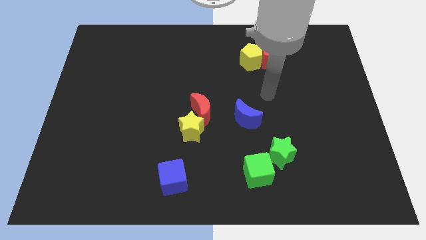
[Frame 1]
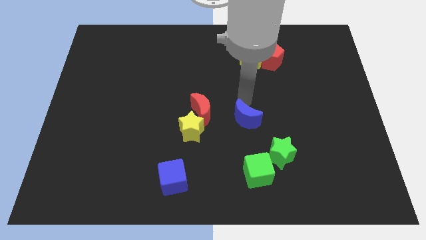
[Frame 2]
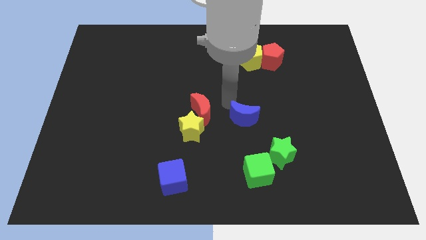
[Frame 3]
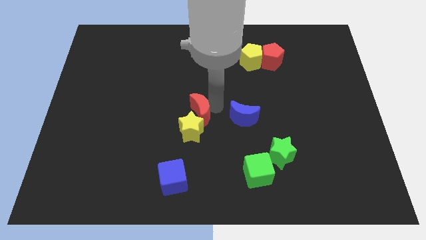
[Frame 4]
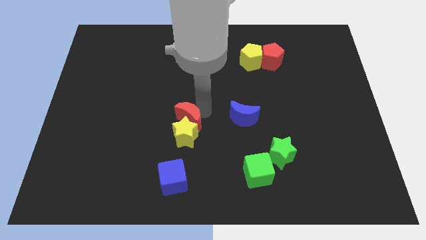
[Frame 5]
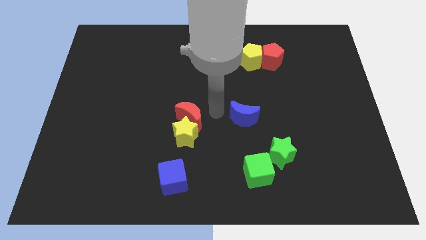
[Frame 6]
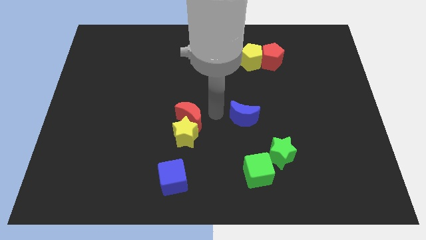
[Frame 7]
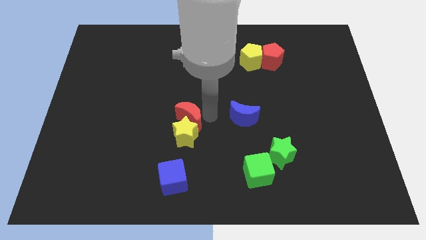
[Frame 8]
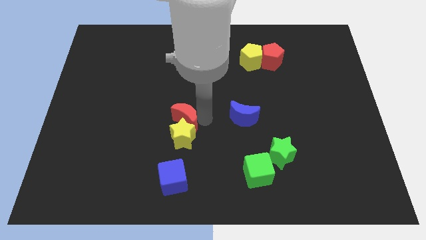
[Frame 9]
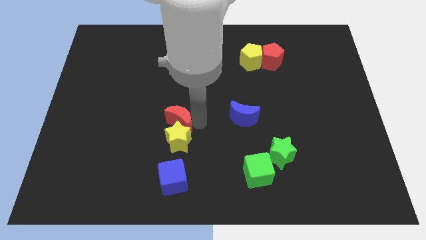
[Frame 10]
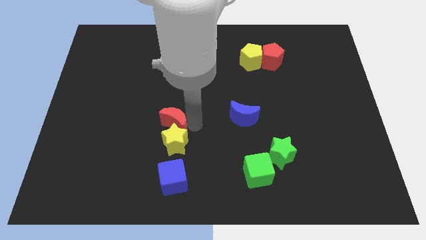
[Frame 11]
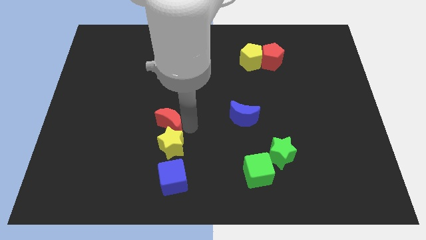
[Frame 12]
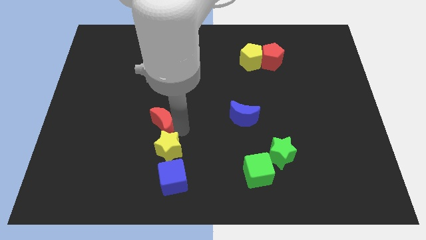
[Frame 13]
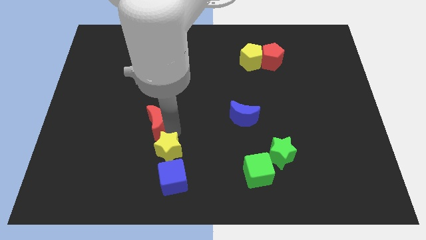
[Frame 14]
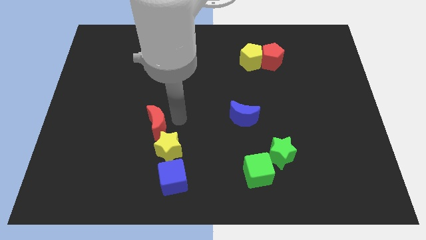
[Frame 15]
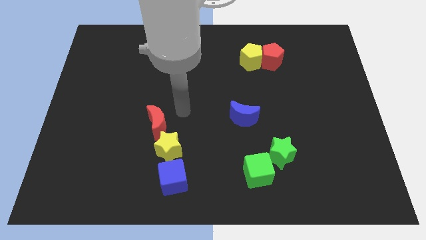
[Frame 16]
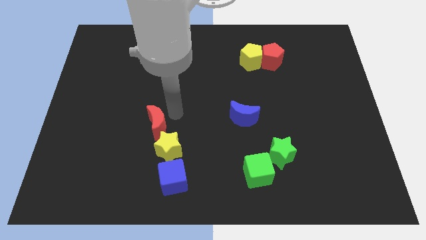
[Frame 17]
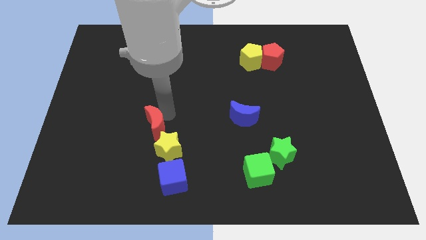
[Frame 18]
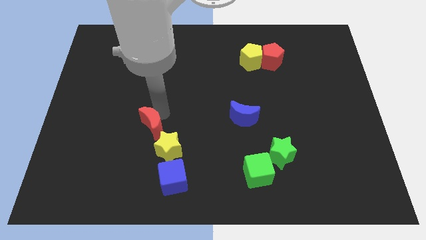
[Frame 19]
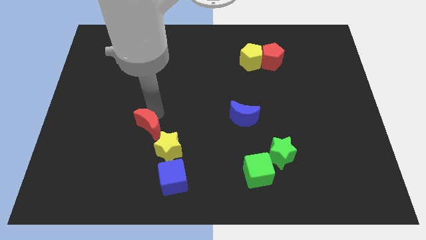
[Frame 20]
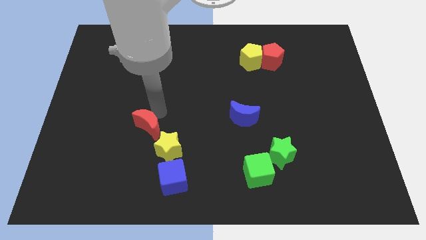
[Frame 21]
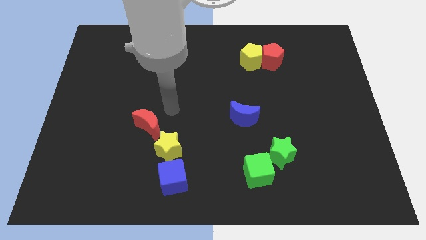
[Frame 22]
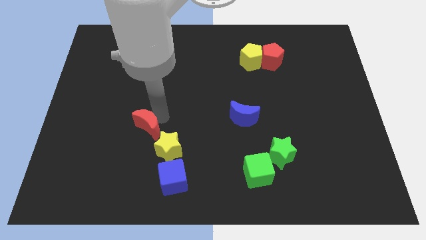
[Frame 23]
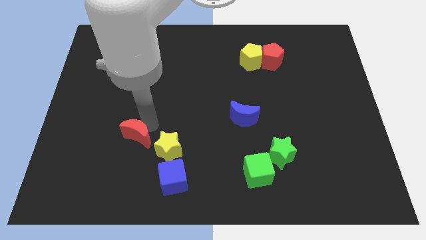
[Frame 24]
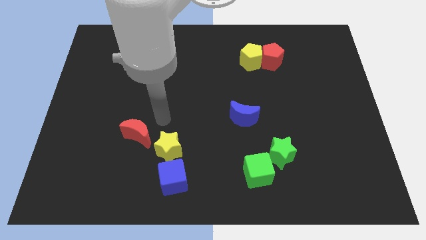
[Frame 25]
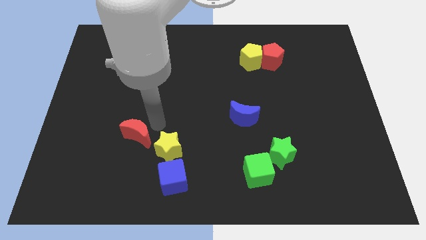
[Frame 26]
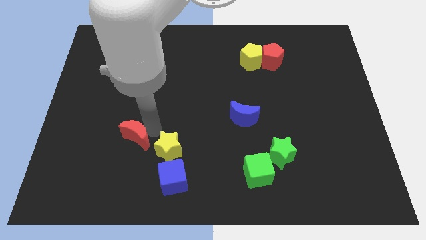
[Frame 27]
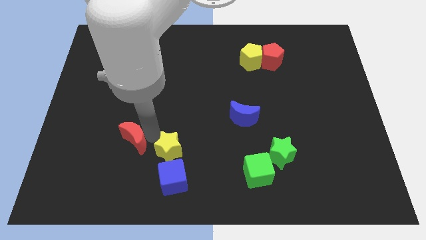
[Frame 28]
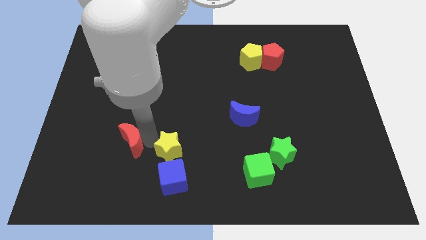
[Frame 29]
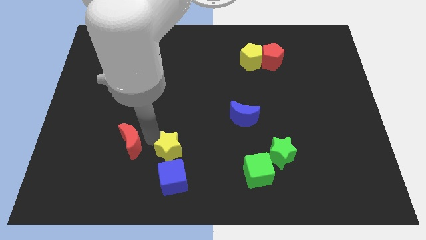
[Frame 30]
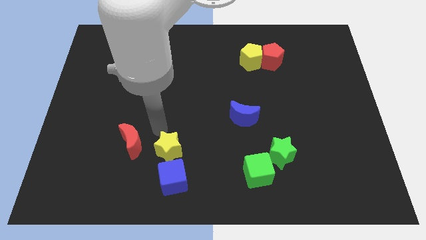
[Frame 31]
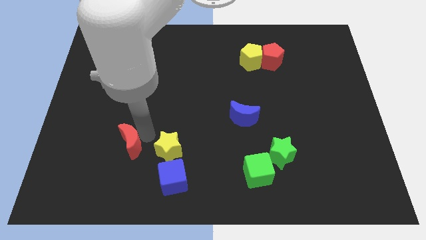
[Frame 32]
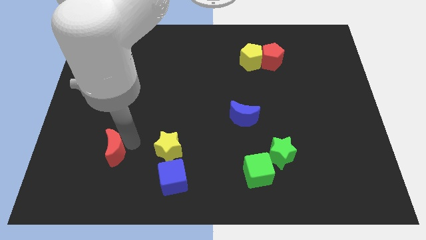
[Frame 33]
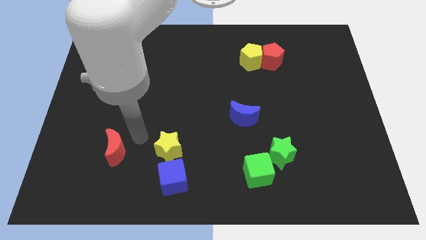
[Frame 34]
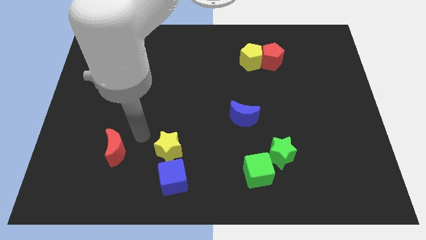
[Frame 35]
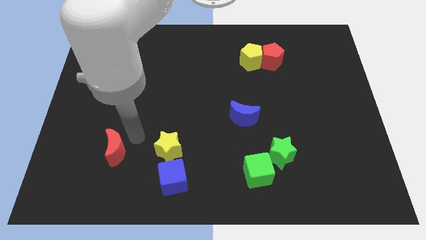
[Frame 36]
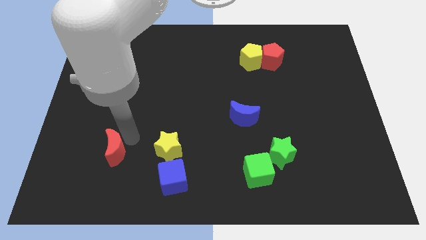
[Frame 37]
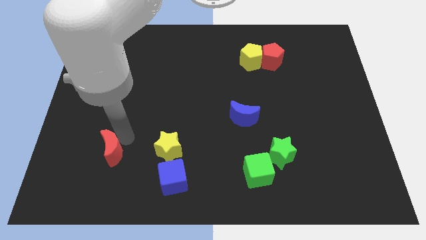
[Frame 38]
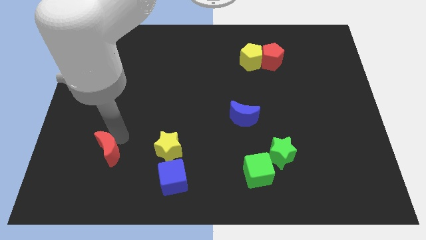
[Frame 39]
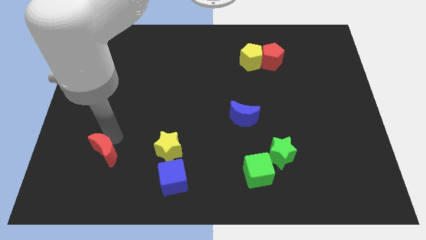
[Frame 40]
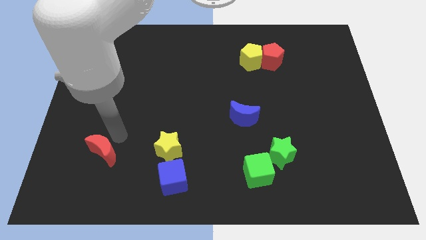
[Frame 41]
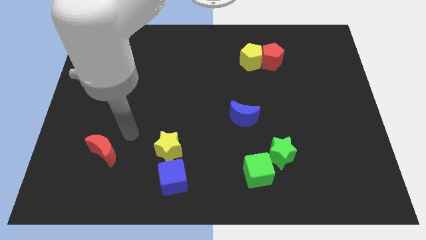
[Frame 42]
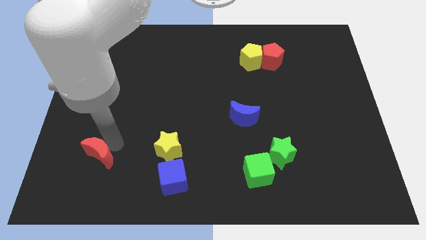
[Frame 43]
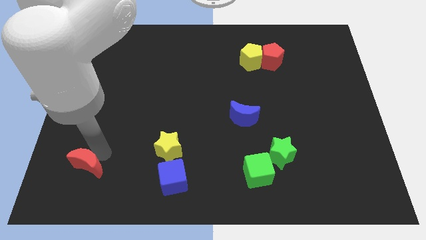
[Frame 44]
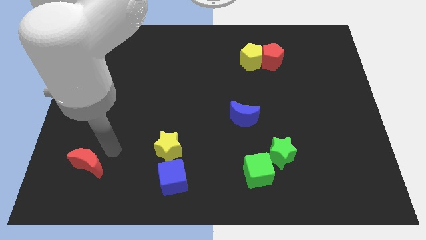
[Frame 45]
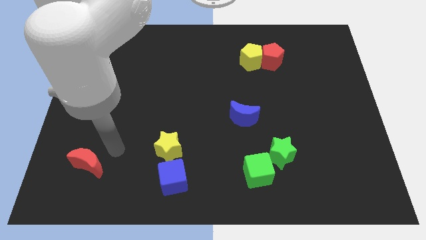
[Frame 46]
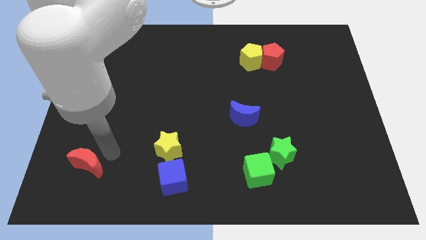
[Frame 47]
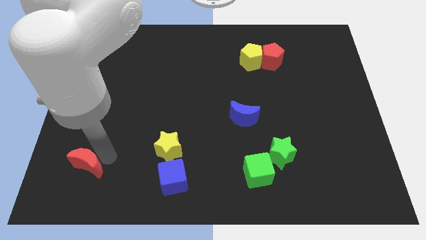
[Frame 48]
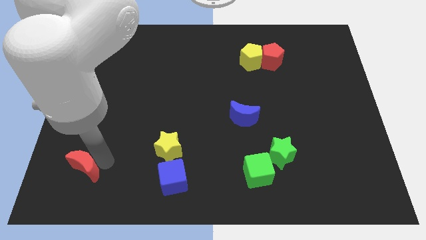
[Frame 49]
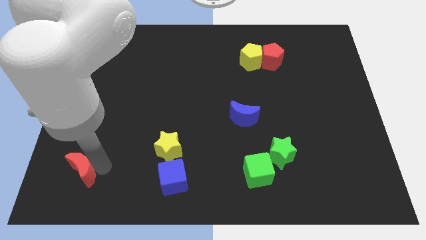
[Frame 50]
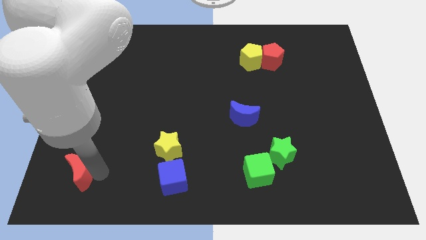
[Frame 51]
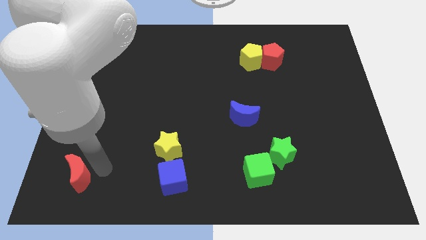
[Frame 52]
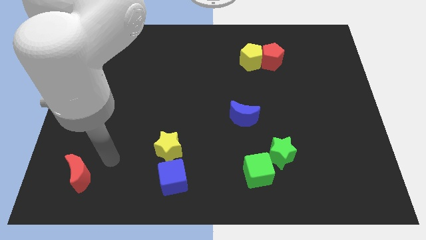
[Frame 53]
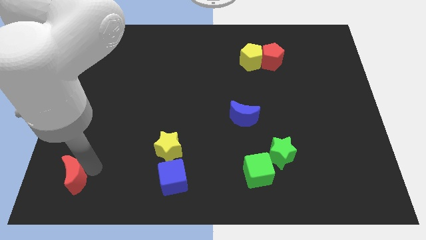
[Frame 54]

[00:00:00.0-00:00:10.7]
move the red moon to the bottom left

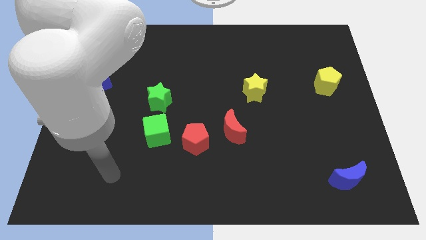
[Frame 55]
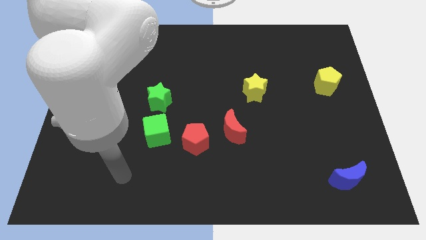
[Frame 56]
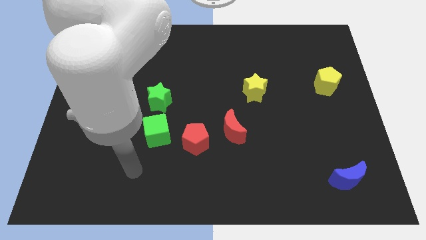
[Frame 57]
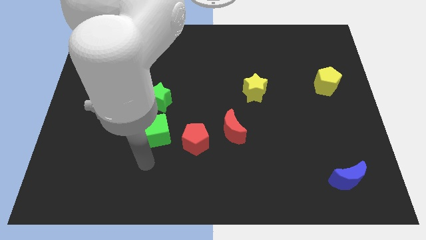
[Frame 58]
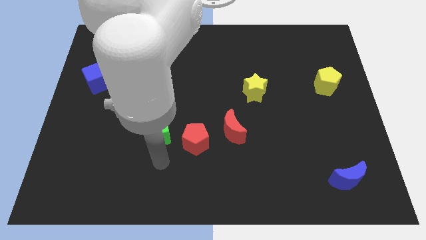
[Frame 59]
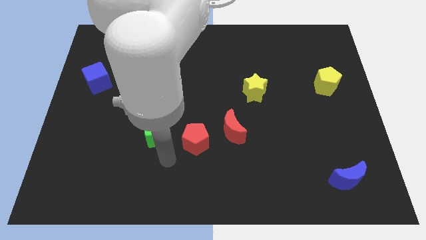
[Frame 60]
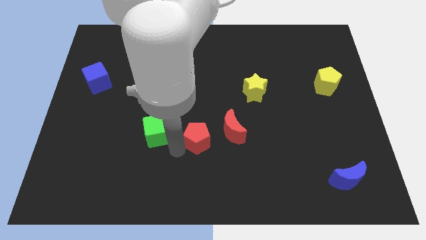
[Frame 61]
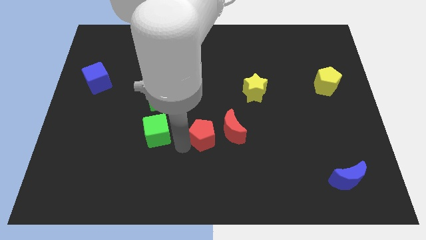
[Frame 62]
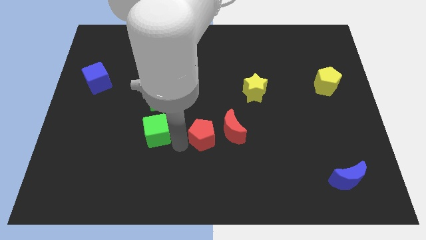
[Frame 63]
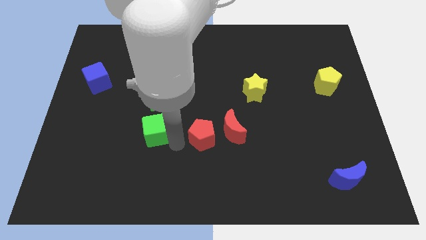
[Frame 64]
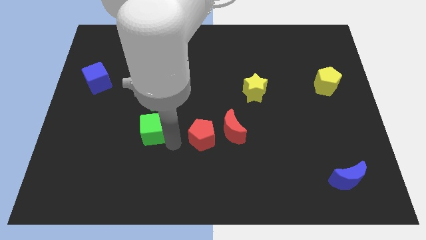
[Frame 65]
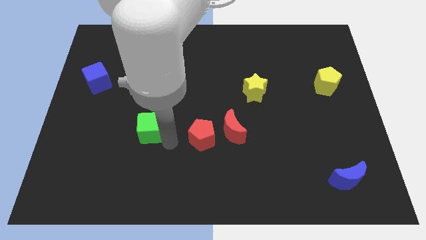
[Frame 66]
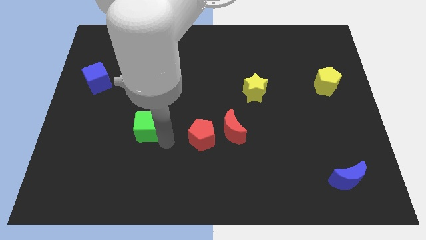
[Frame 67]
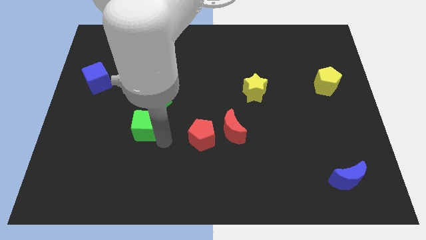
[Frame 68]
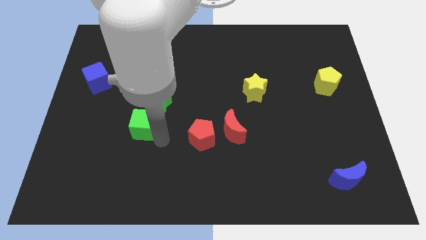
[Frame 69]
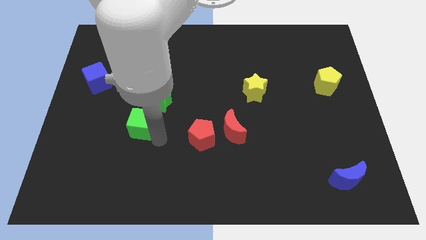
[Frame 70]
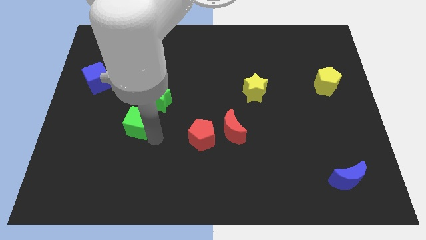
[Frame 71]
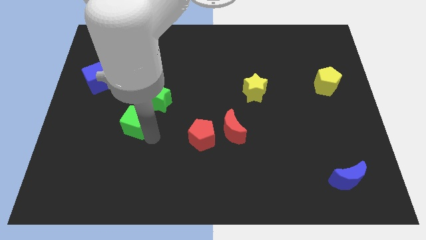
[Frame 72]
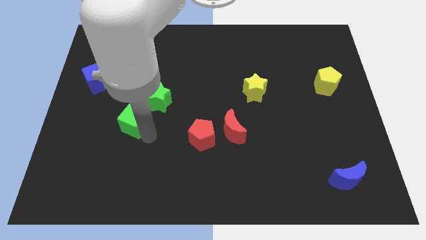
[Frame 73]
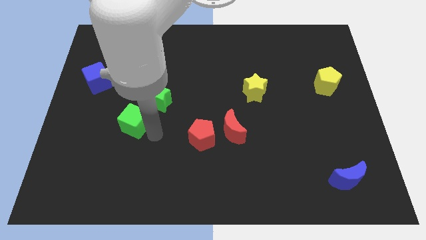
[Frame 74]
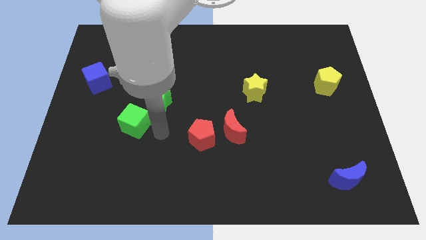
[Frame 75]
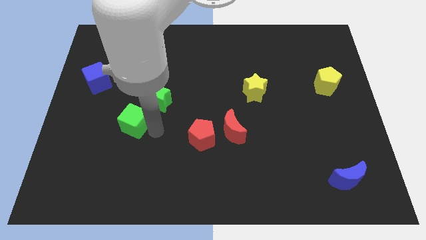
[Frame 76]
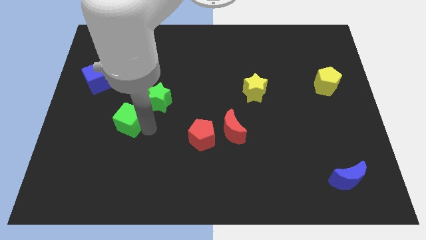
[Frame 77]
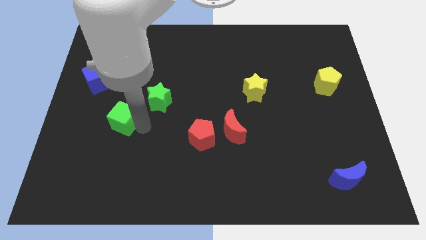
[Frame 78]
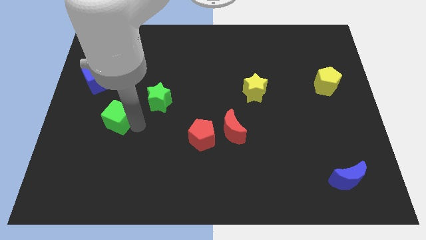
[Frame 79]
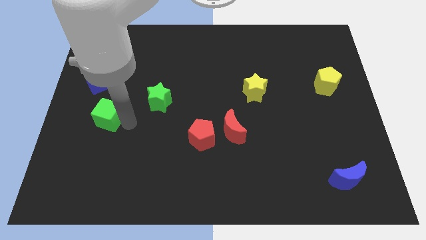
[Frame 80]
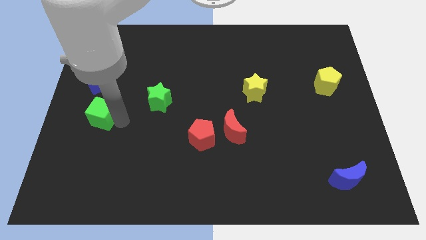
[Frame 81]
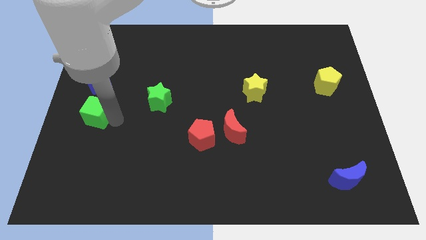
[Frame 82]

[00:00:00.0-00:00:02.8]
slide the green cube to the left side
